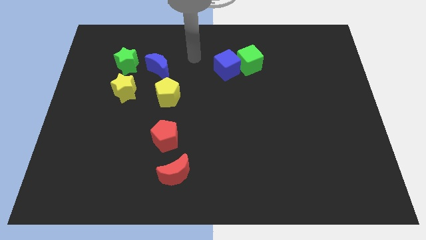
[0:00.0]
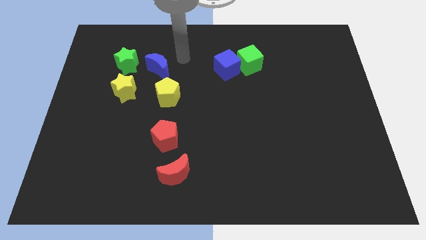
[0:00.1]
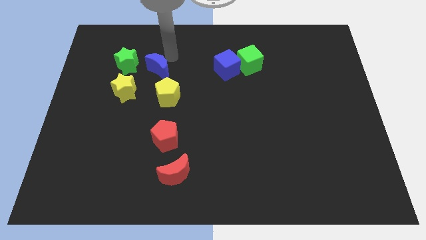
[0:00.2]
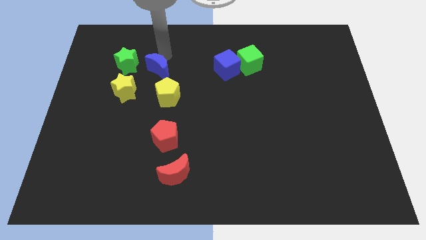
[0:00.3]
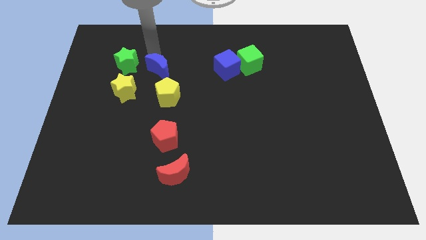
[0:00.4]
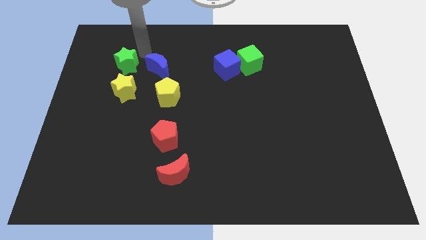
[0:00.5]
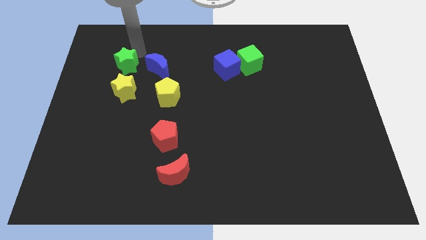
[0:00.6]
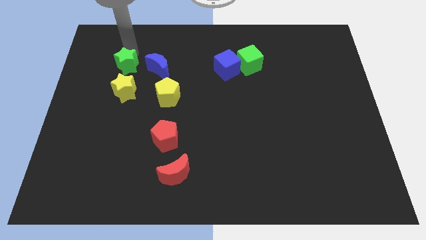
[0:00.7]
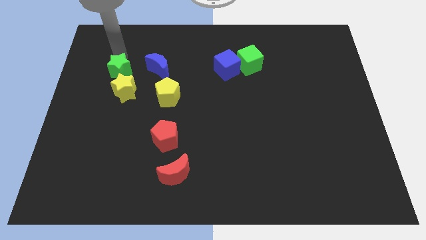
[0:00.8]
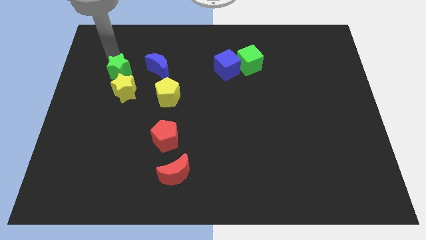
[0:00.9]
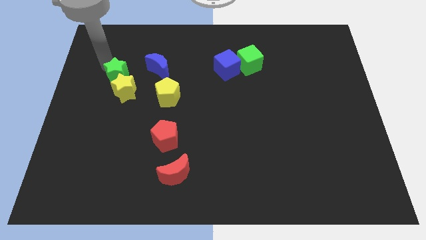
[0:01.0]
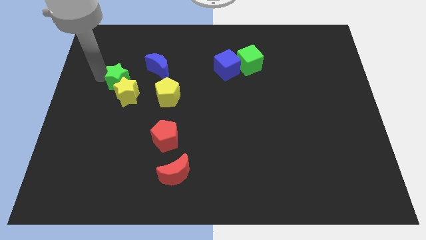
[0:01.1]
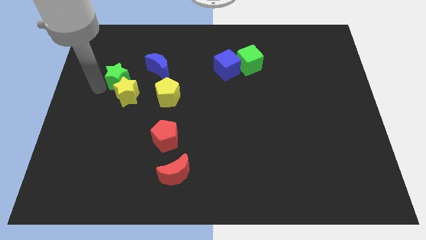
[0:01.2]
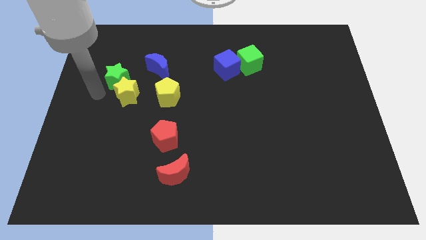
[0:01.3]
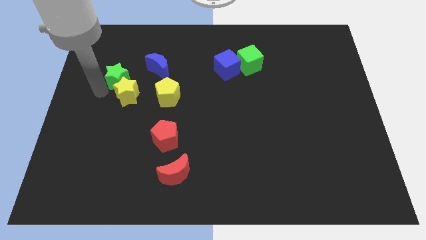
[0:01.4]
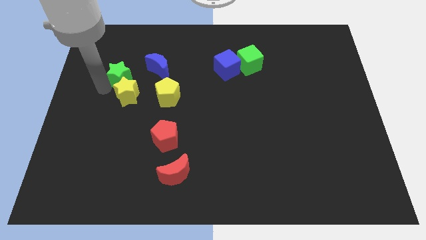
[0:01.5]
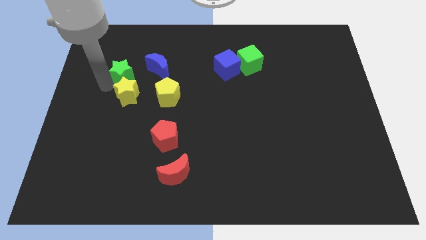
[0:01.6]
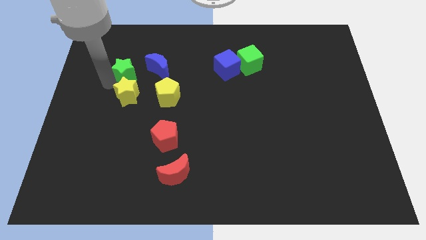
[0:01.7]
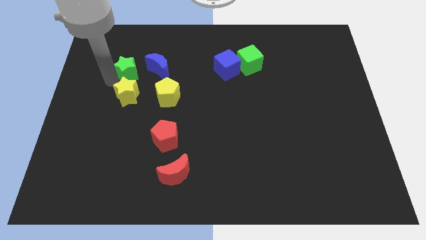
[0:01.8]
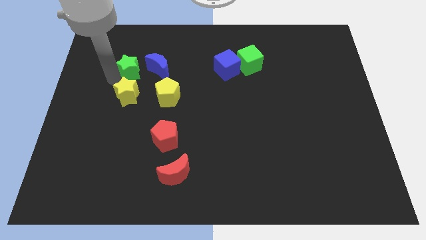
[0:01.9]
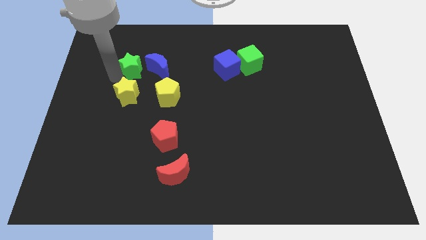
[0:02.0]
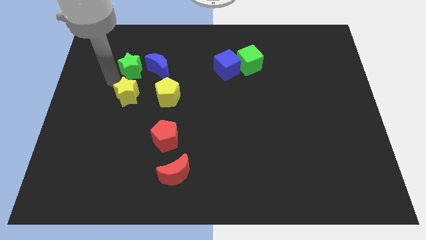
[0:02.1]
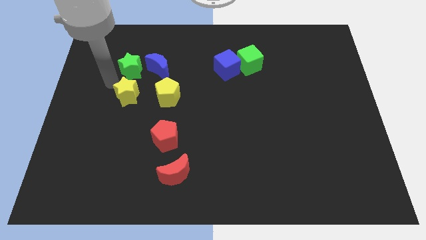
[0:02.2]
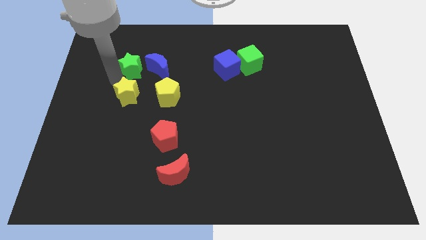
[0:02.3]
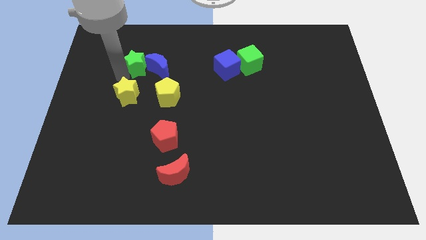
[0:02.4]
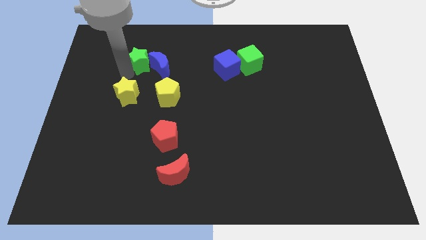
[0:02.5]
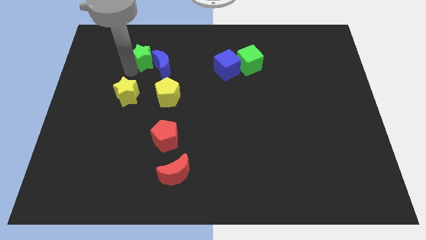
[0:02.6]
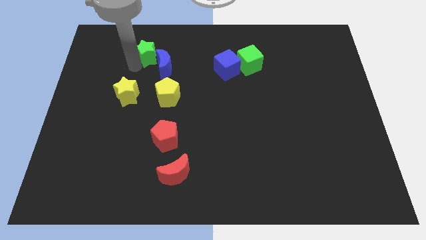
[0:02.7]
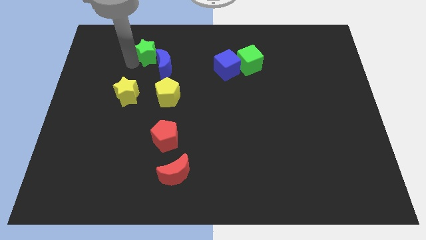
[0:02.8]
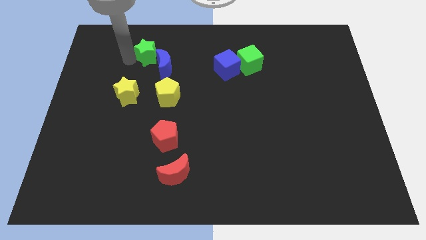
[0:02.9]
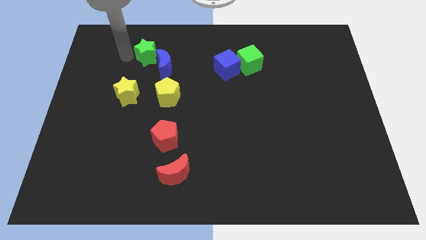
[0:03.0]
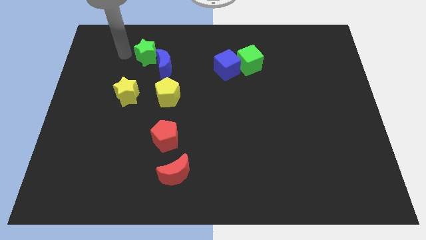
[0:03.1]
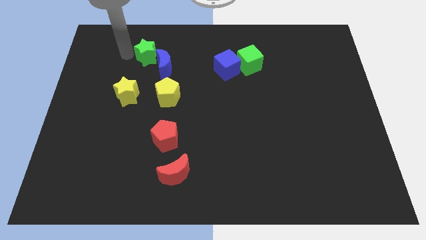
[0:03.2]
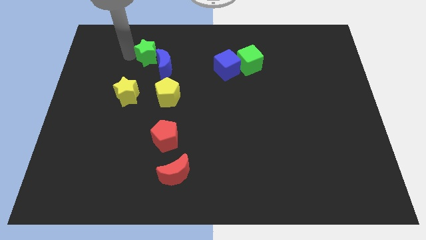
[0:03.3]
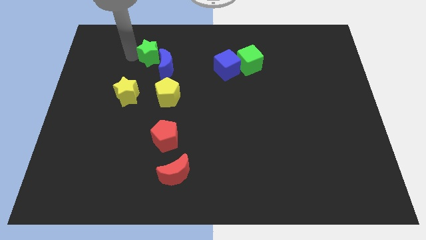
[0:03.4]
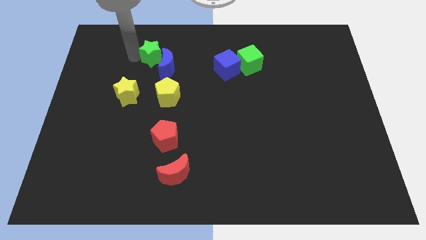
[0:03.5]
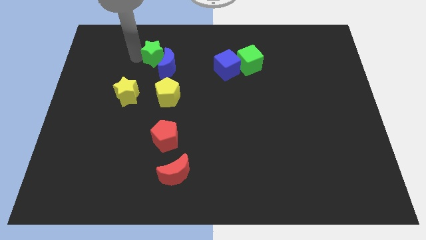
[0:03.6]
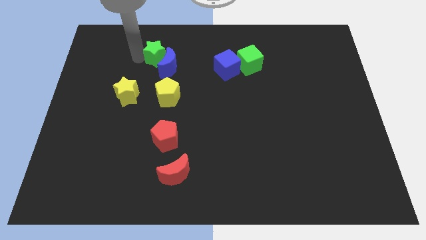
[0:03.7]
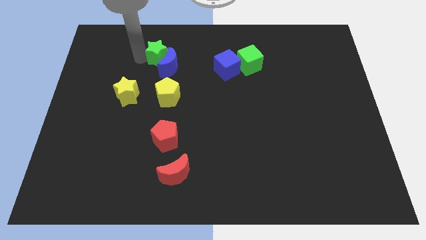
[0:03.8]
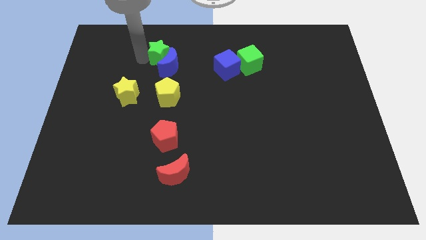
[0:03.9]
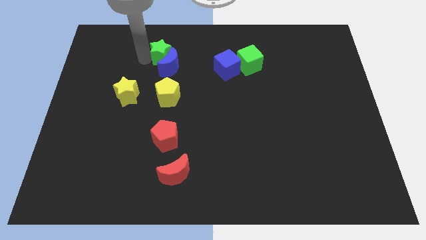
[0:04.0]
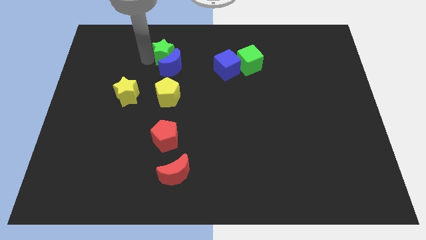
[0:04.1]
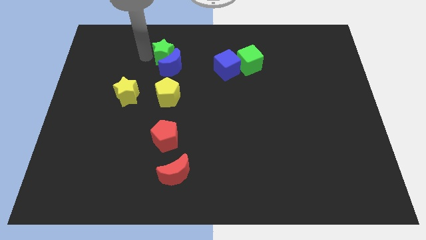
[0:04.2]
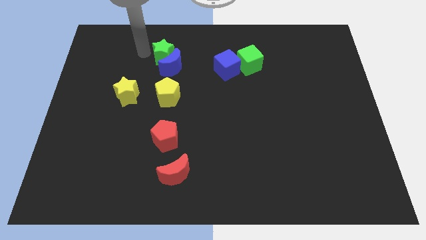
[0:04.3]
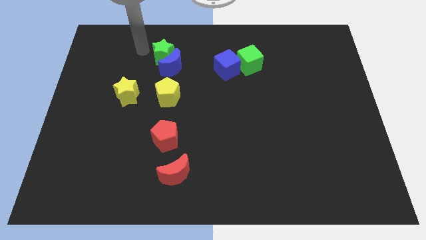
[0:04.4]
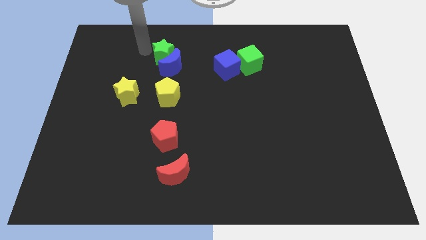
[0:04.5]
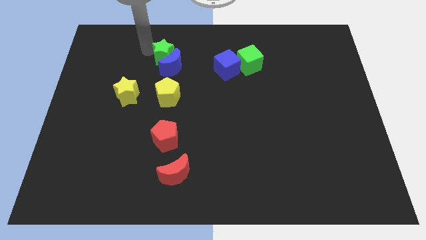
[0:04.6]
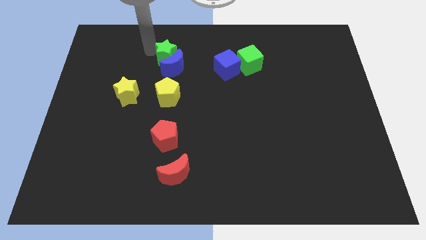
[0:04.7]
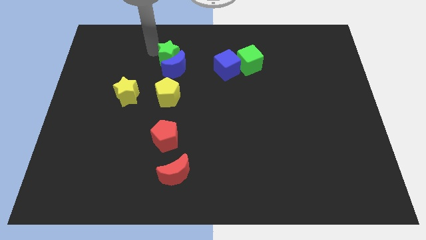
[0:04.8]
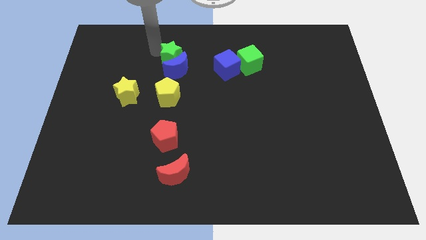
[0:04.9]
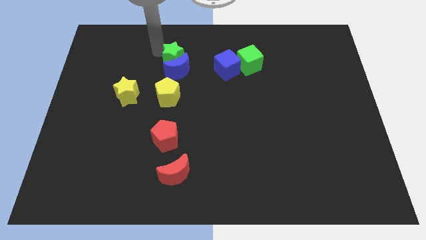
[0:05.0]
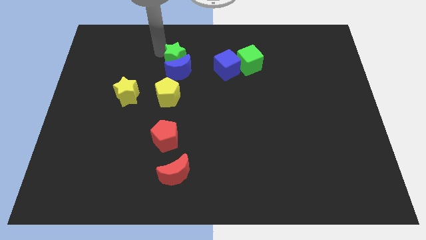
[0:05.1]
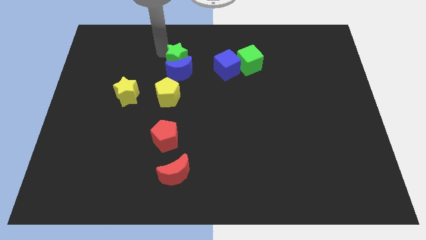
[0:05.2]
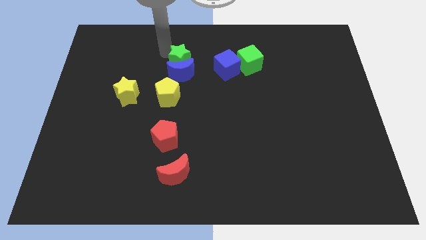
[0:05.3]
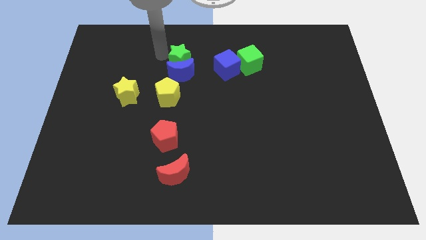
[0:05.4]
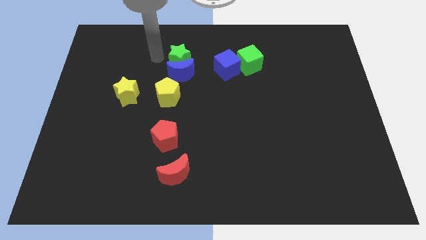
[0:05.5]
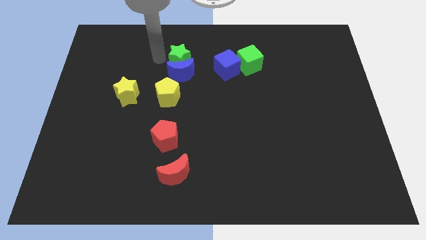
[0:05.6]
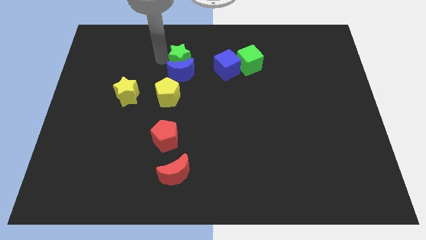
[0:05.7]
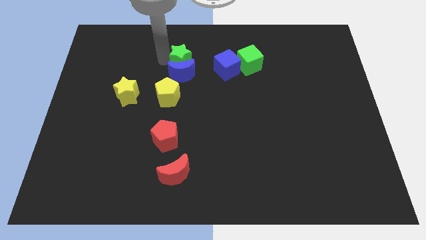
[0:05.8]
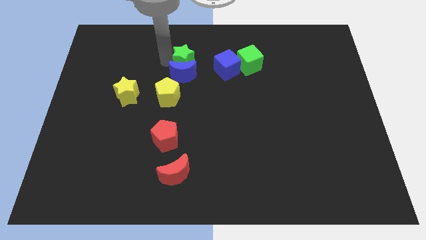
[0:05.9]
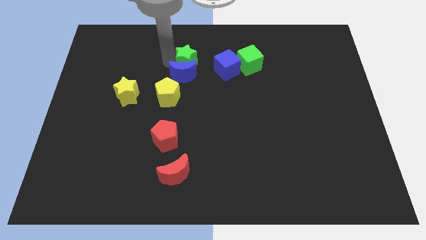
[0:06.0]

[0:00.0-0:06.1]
move the green star to the left side of the green cube

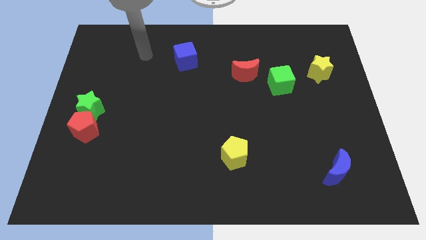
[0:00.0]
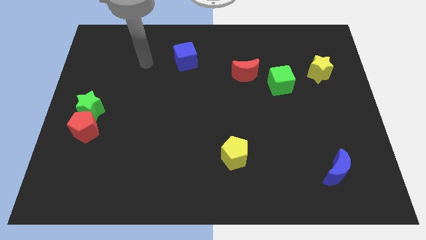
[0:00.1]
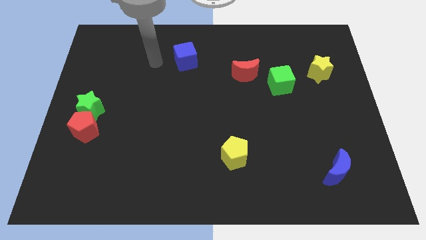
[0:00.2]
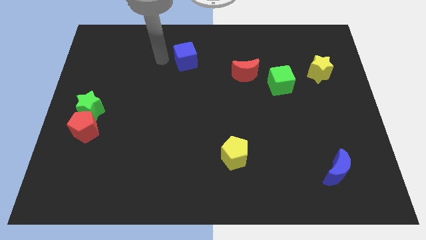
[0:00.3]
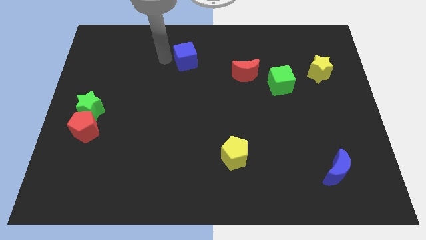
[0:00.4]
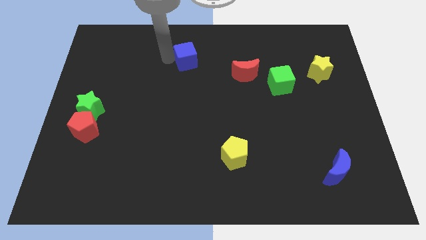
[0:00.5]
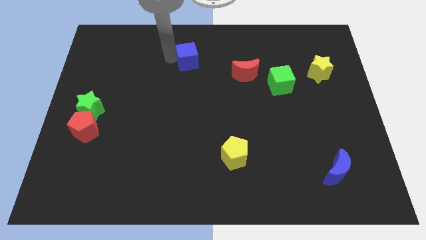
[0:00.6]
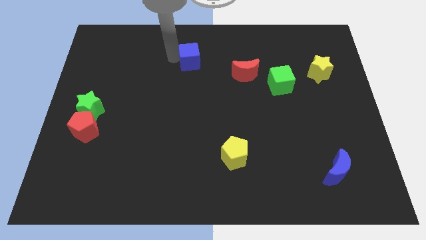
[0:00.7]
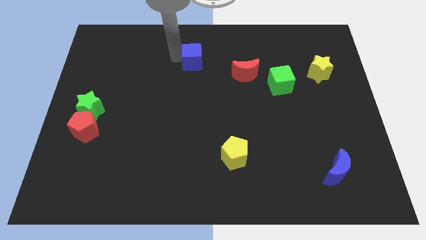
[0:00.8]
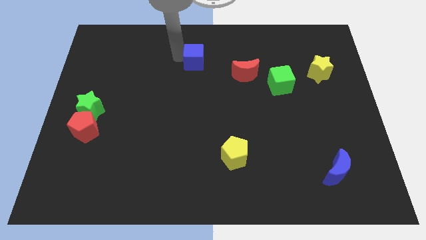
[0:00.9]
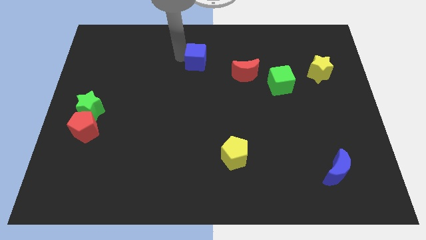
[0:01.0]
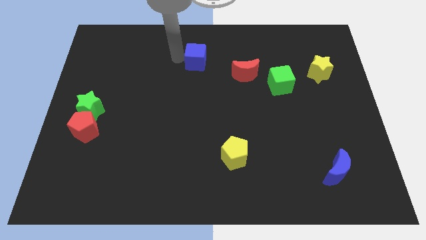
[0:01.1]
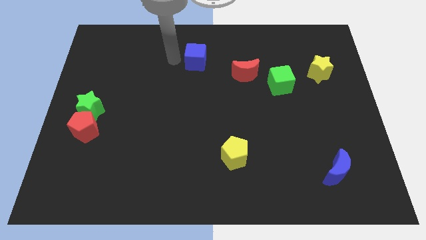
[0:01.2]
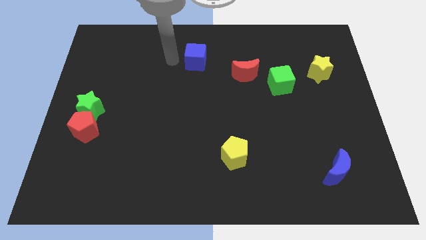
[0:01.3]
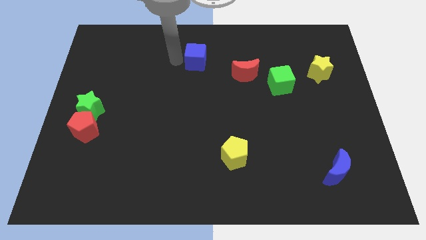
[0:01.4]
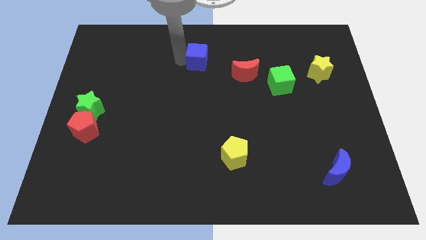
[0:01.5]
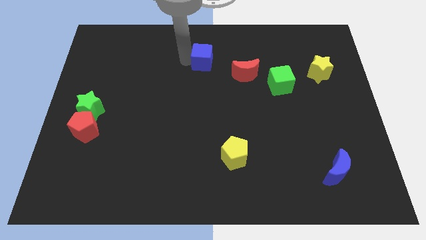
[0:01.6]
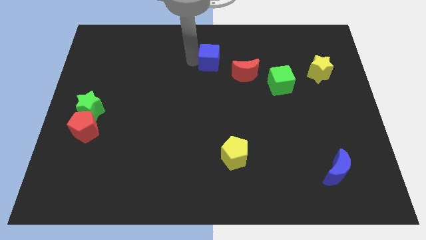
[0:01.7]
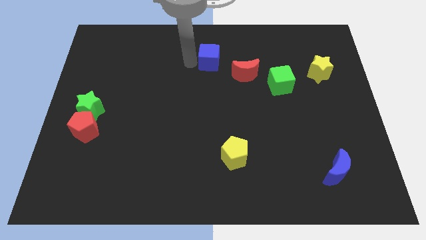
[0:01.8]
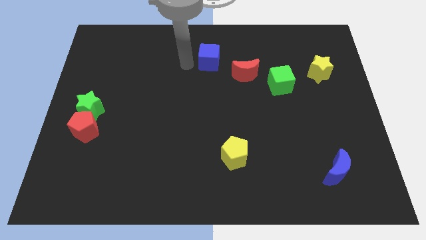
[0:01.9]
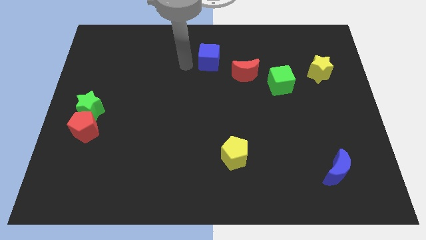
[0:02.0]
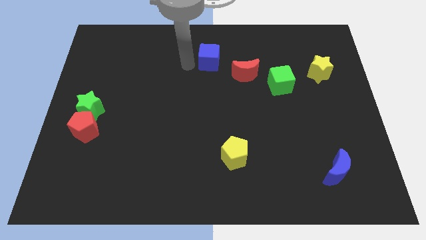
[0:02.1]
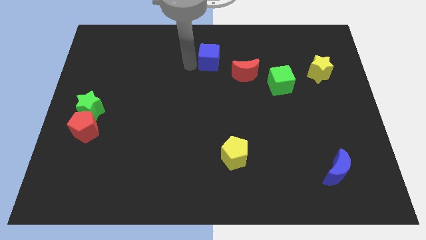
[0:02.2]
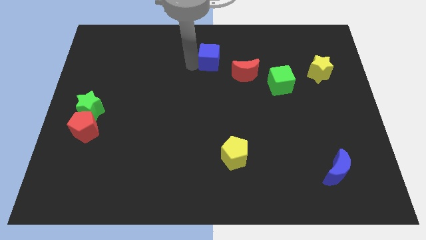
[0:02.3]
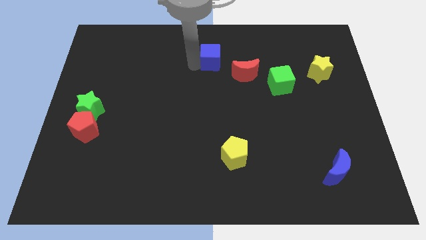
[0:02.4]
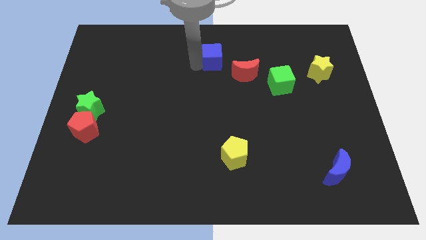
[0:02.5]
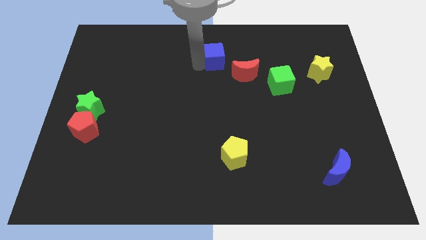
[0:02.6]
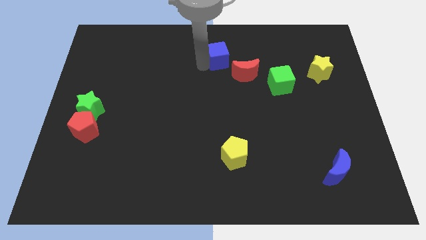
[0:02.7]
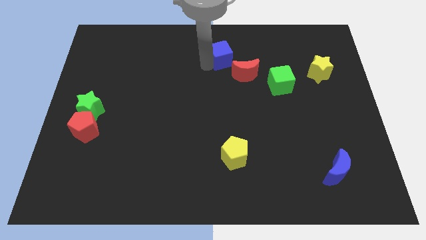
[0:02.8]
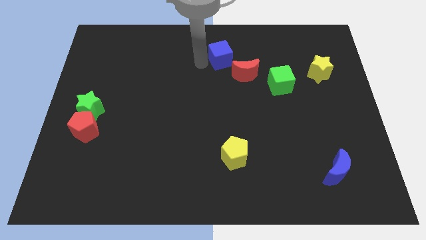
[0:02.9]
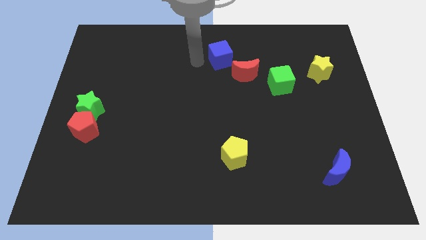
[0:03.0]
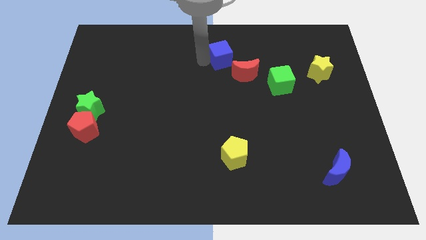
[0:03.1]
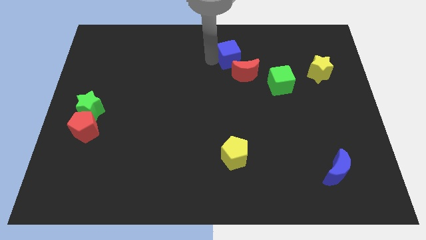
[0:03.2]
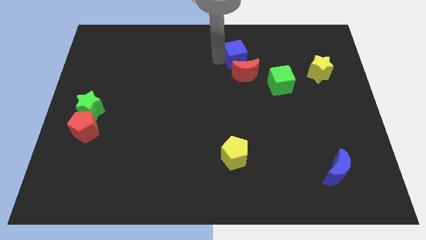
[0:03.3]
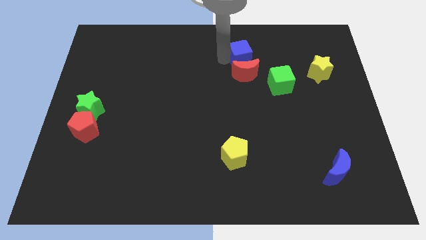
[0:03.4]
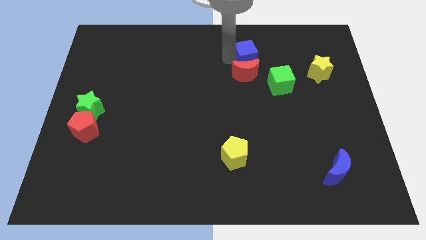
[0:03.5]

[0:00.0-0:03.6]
push the blue cube to the top left side of the green cube
